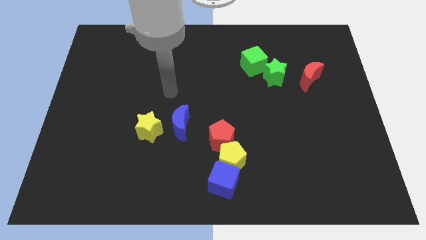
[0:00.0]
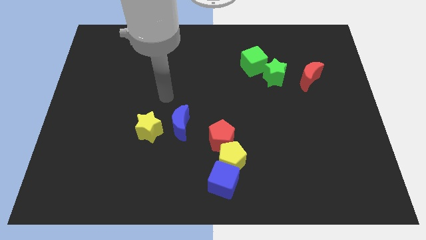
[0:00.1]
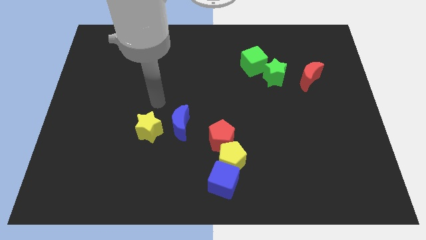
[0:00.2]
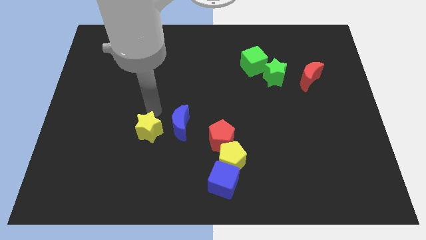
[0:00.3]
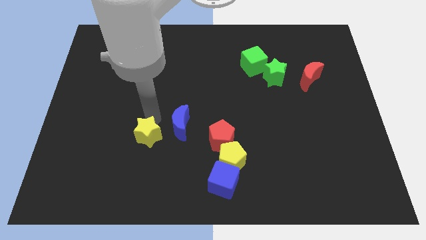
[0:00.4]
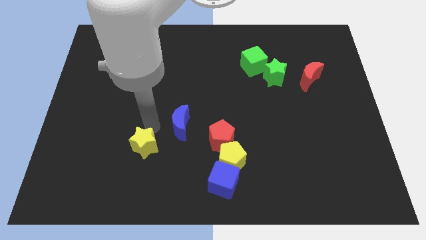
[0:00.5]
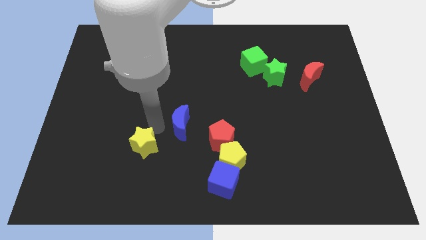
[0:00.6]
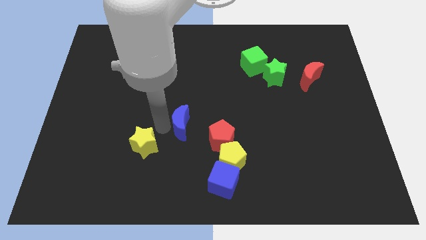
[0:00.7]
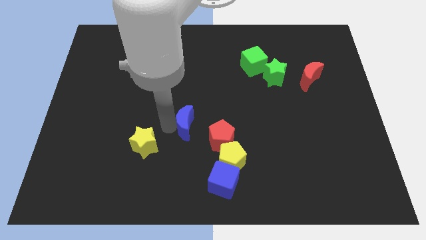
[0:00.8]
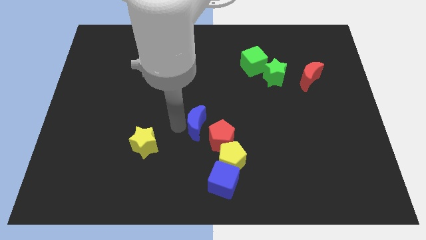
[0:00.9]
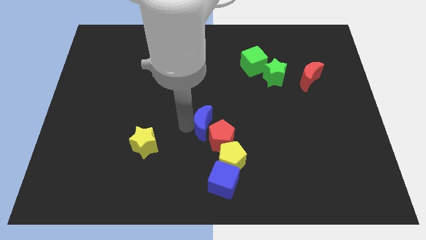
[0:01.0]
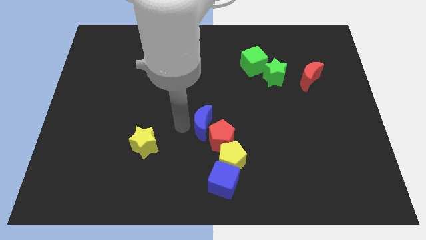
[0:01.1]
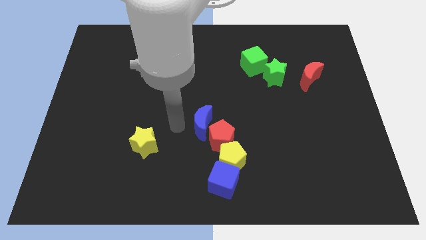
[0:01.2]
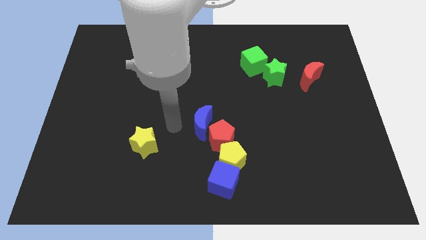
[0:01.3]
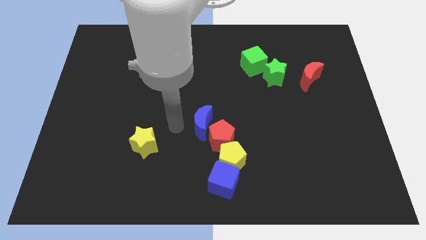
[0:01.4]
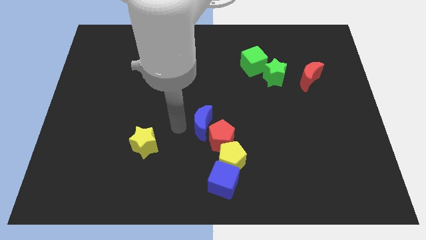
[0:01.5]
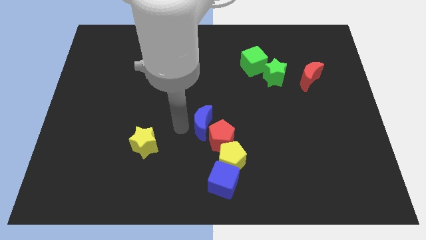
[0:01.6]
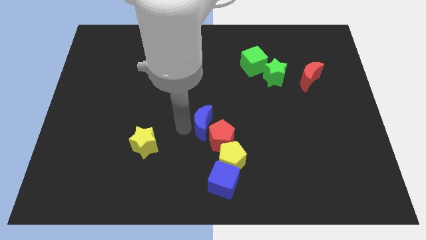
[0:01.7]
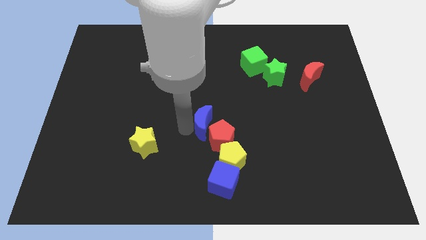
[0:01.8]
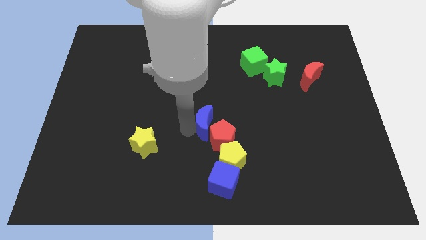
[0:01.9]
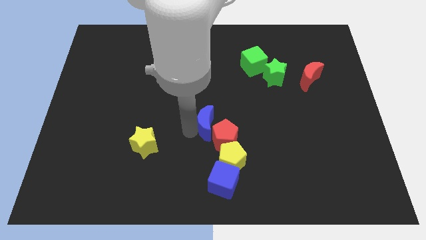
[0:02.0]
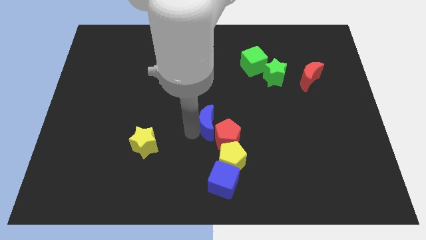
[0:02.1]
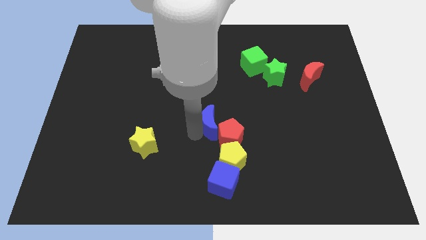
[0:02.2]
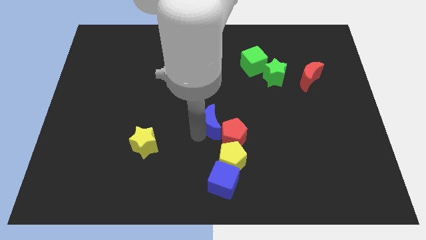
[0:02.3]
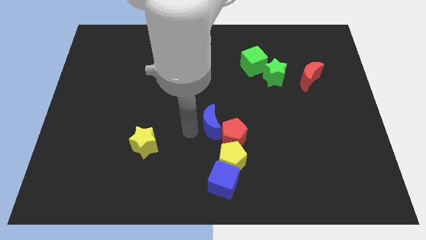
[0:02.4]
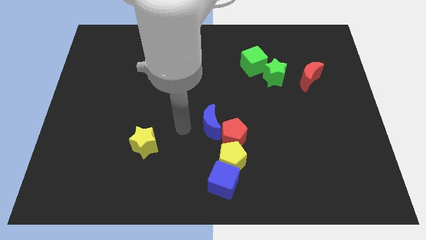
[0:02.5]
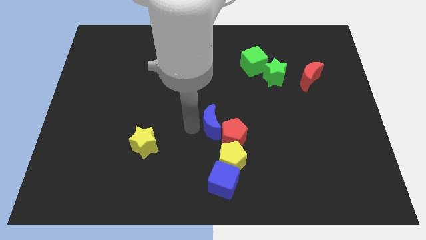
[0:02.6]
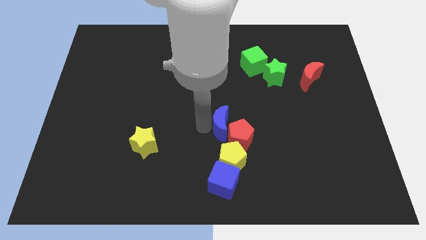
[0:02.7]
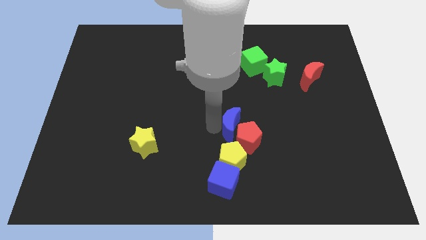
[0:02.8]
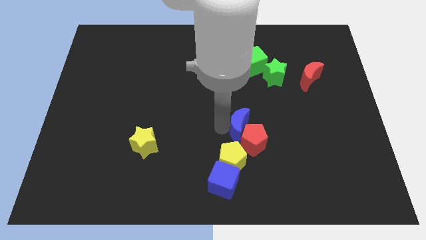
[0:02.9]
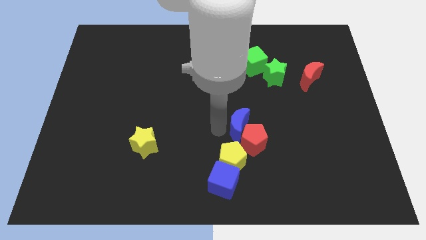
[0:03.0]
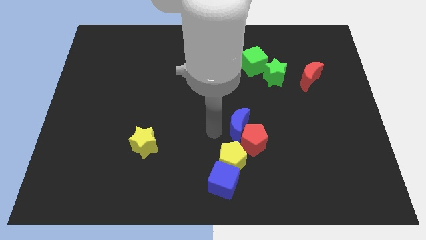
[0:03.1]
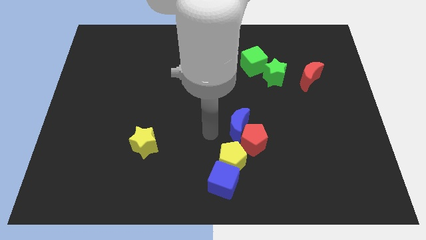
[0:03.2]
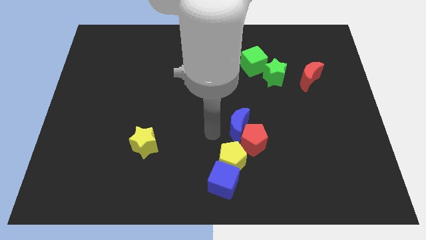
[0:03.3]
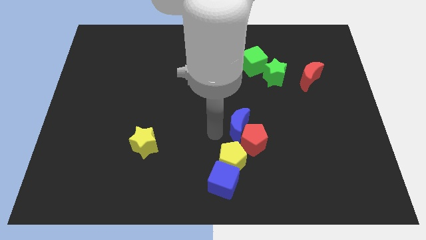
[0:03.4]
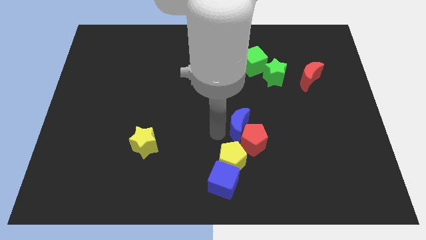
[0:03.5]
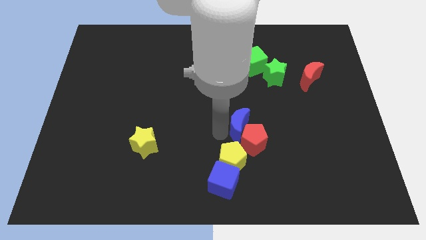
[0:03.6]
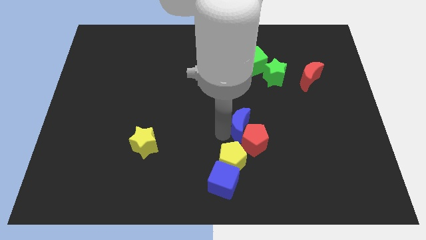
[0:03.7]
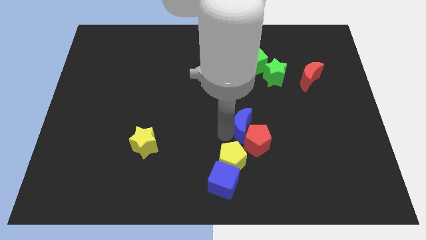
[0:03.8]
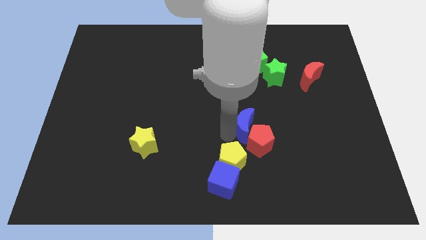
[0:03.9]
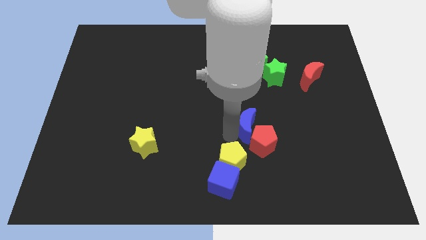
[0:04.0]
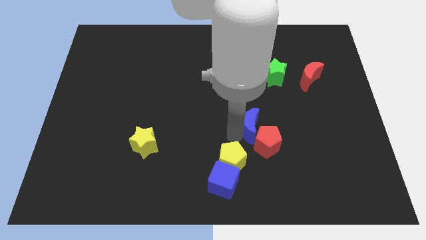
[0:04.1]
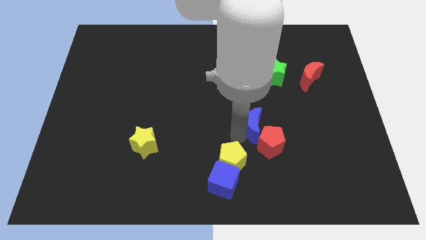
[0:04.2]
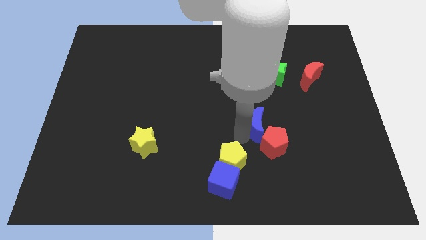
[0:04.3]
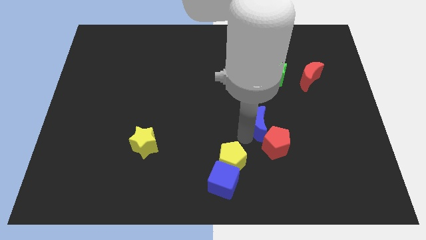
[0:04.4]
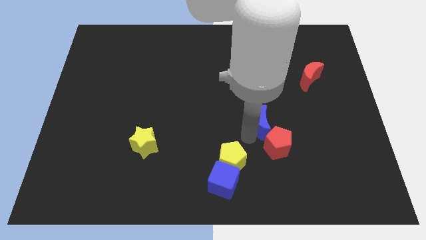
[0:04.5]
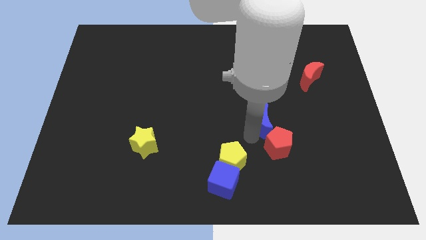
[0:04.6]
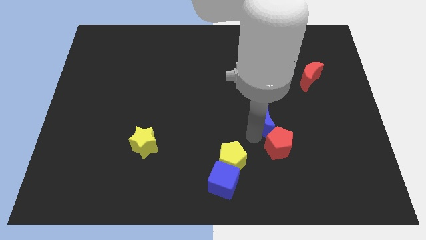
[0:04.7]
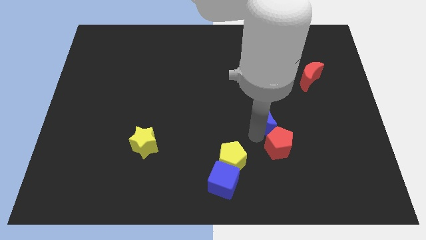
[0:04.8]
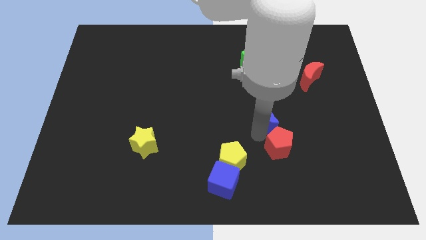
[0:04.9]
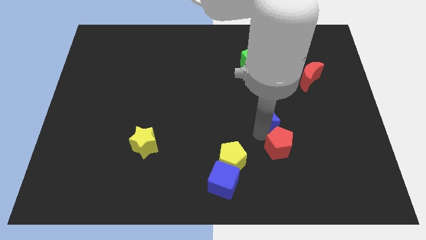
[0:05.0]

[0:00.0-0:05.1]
push the blue moon to the right

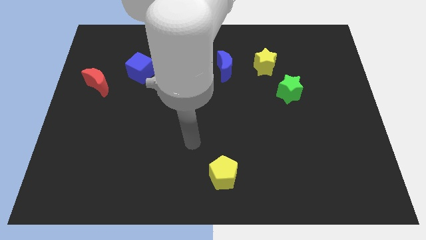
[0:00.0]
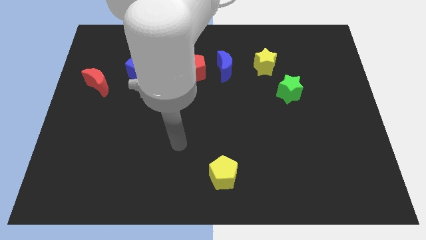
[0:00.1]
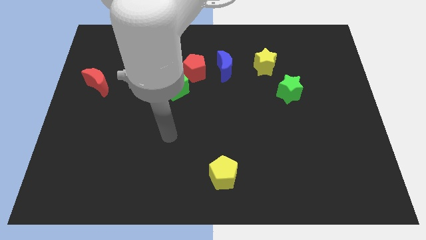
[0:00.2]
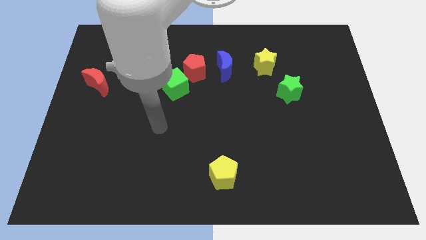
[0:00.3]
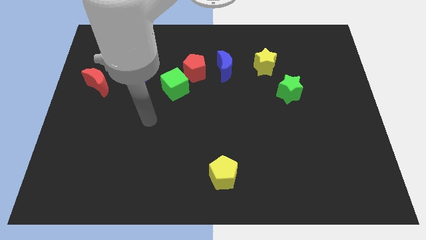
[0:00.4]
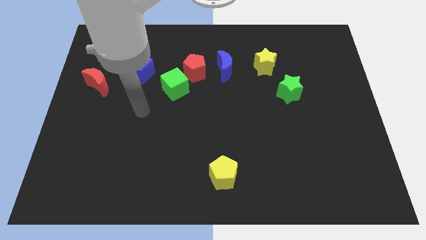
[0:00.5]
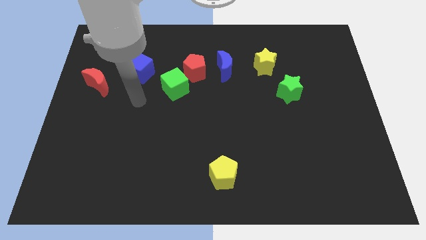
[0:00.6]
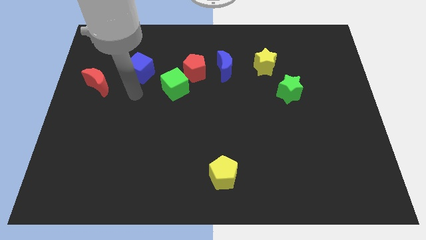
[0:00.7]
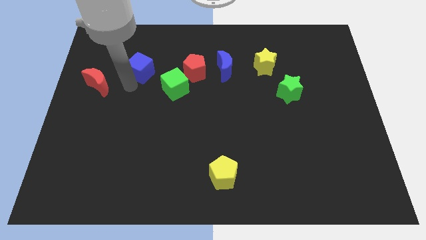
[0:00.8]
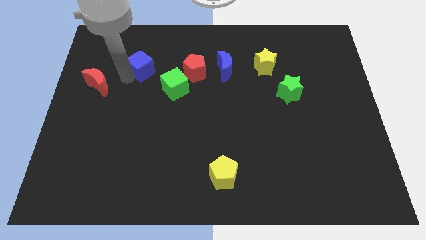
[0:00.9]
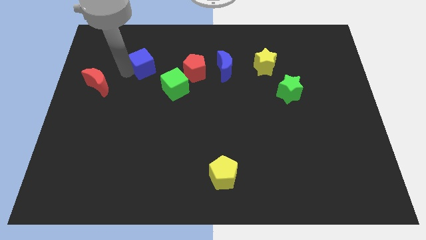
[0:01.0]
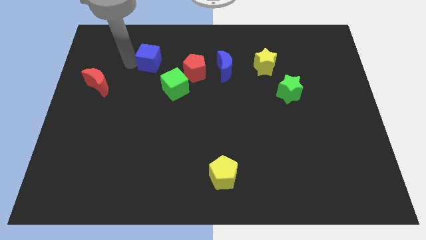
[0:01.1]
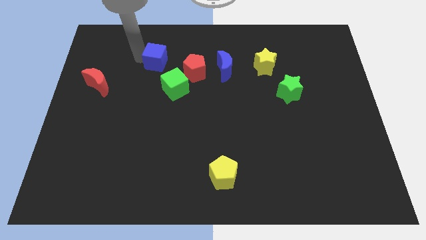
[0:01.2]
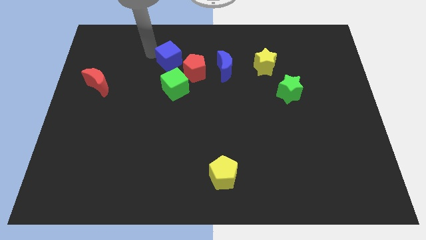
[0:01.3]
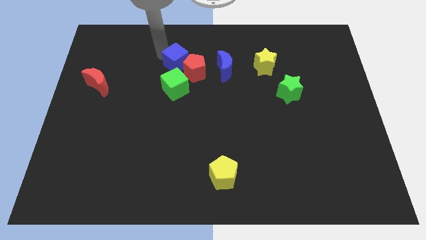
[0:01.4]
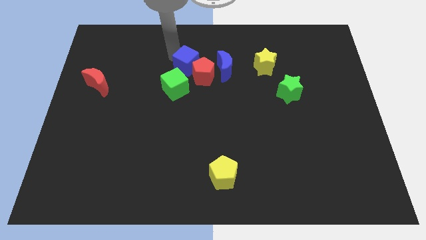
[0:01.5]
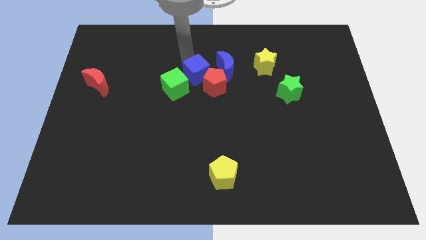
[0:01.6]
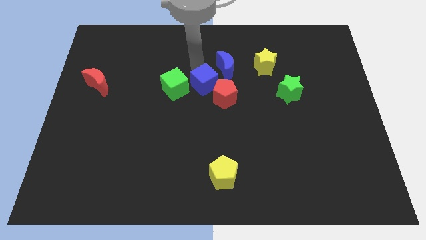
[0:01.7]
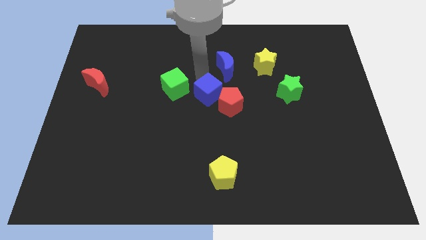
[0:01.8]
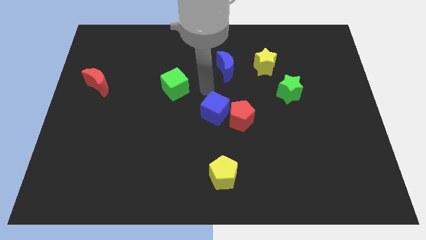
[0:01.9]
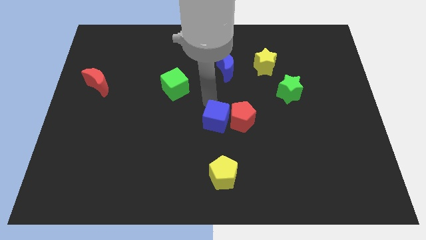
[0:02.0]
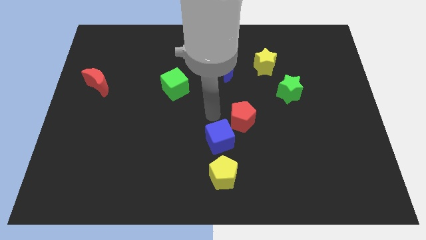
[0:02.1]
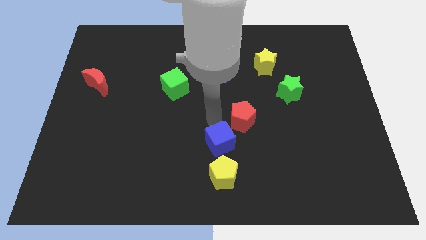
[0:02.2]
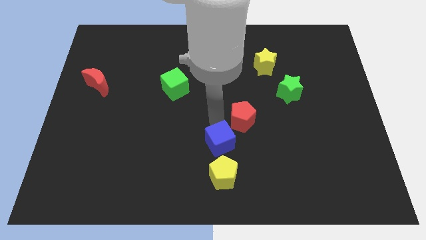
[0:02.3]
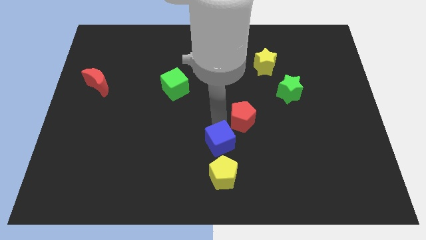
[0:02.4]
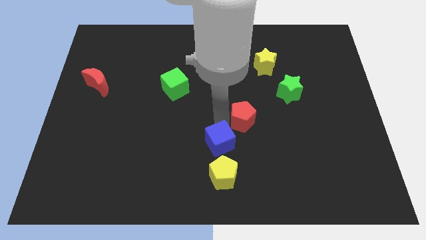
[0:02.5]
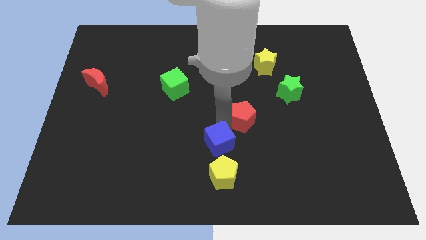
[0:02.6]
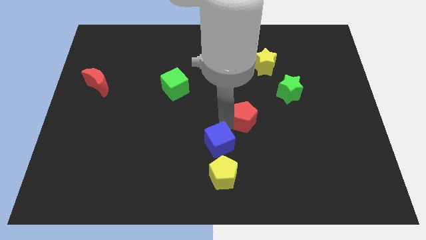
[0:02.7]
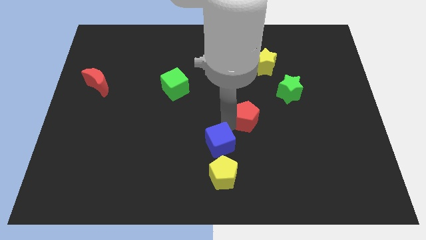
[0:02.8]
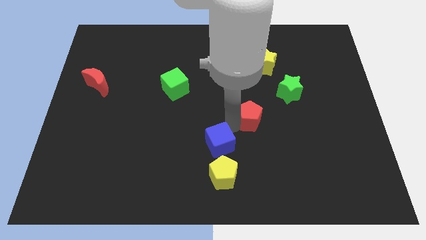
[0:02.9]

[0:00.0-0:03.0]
push the red pentagon downwards and to the right
